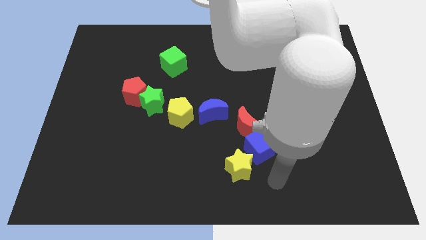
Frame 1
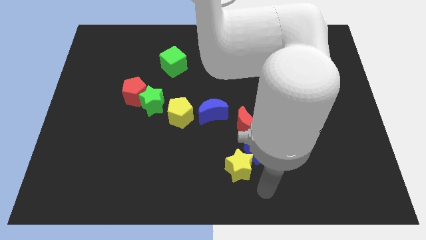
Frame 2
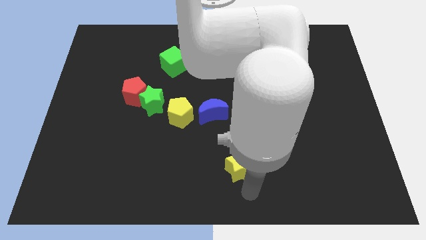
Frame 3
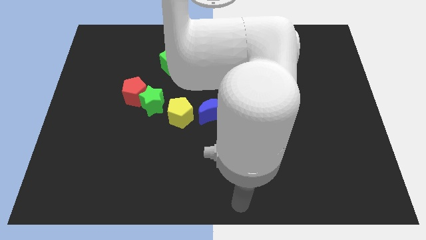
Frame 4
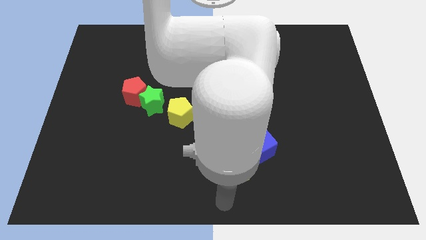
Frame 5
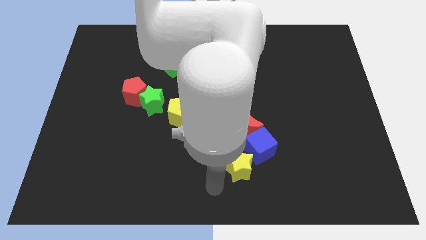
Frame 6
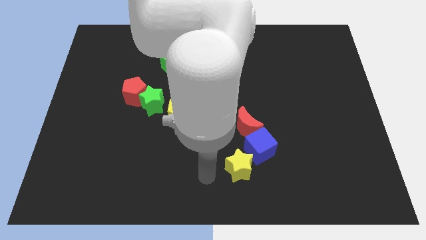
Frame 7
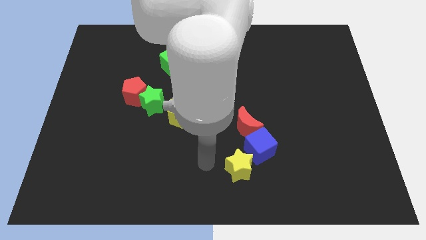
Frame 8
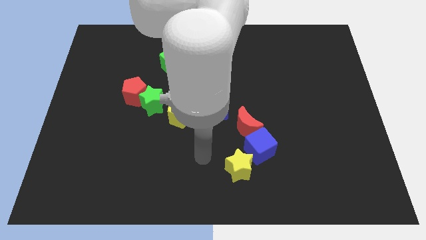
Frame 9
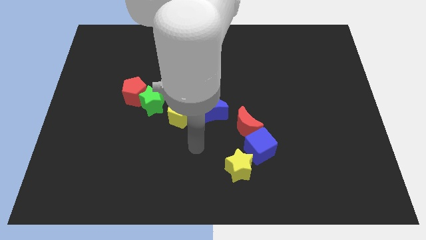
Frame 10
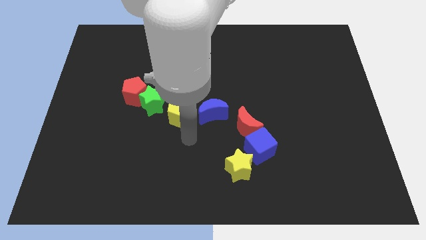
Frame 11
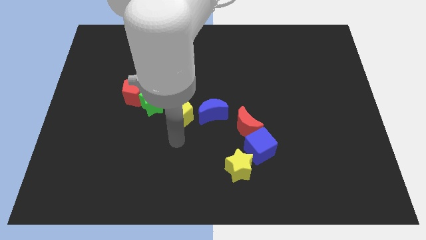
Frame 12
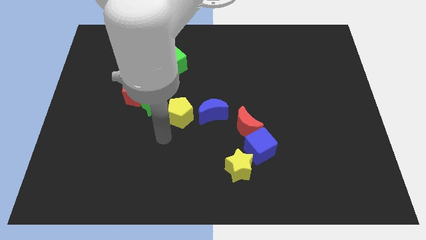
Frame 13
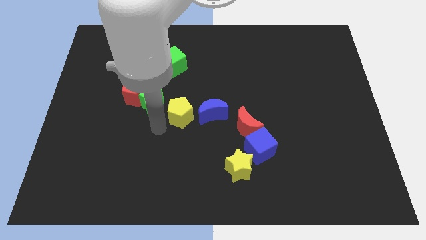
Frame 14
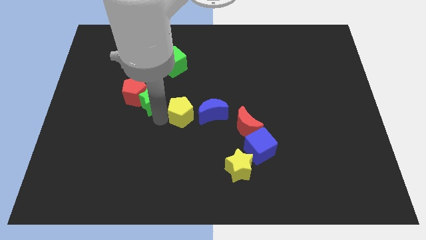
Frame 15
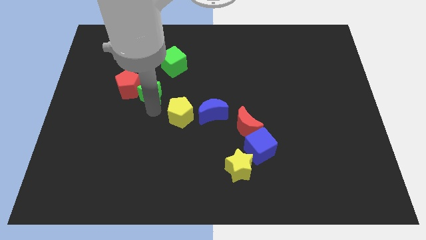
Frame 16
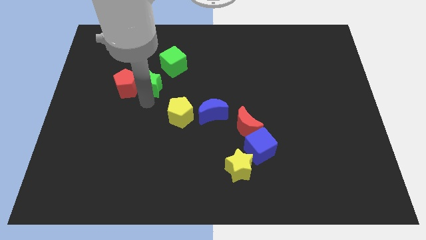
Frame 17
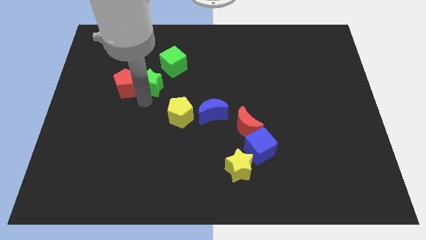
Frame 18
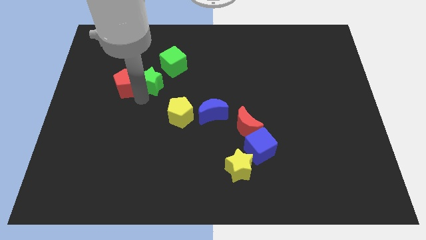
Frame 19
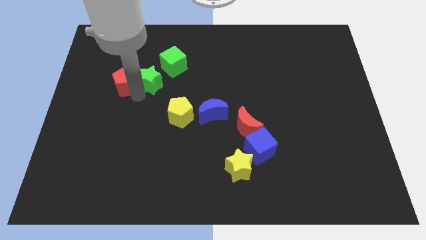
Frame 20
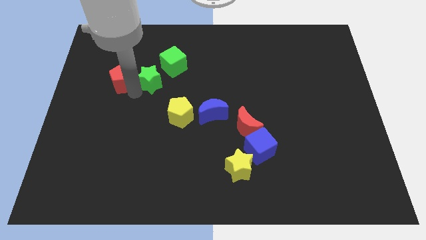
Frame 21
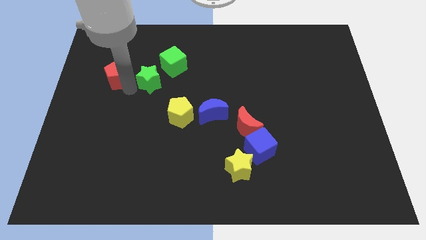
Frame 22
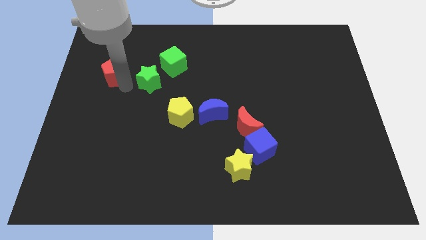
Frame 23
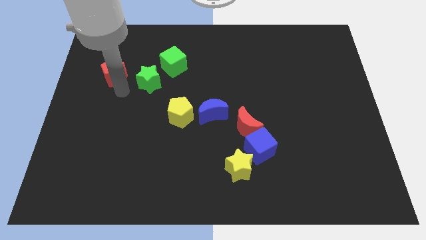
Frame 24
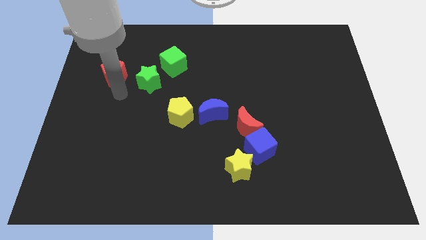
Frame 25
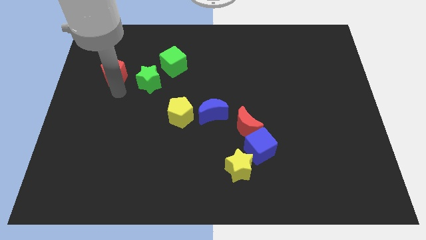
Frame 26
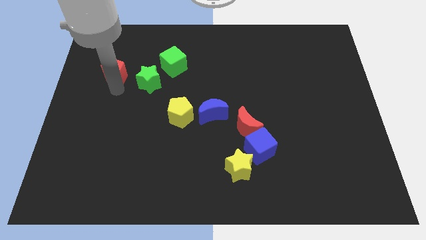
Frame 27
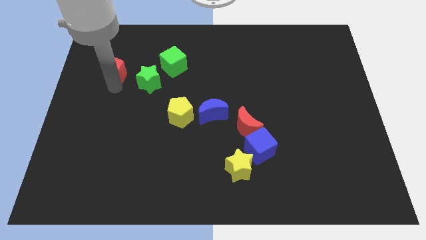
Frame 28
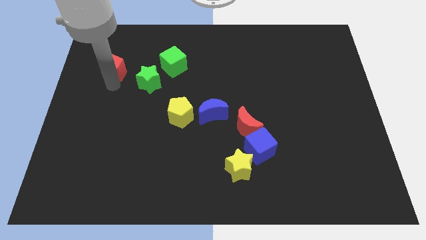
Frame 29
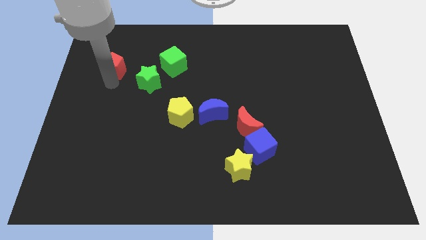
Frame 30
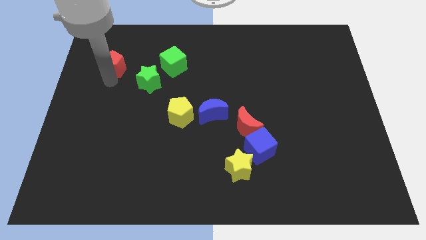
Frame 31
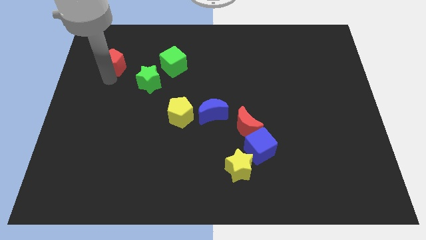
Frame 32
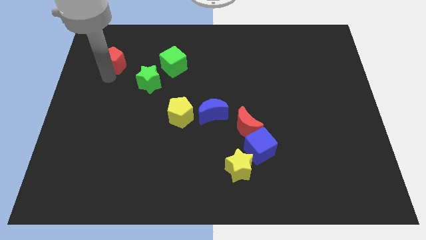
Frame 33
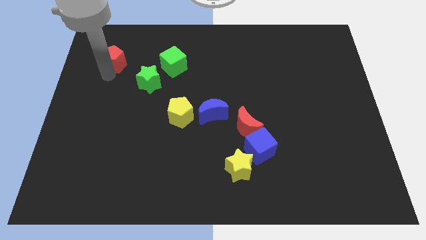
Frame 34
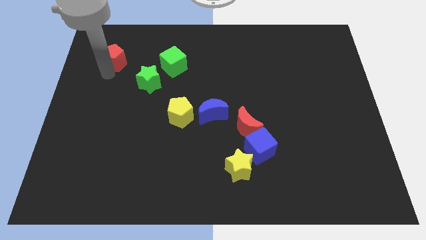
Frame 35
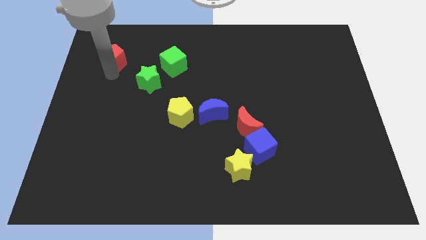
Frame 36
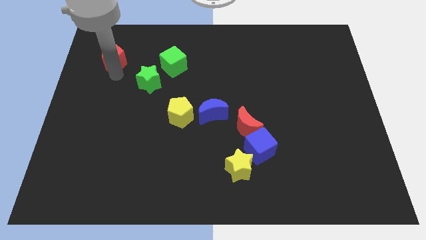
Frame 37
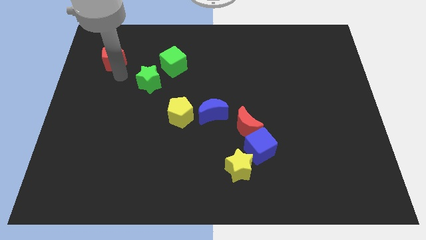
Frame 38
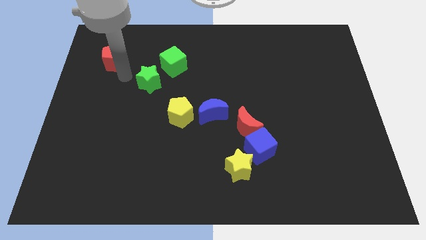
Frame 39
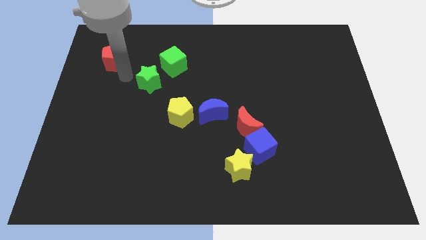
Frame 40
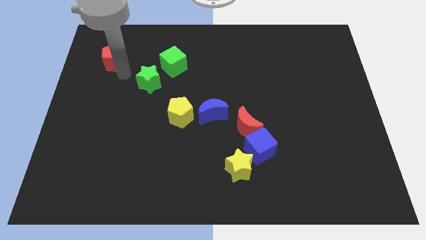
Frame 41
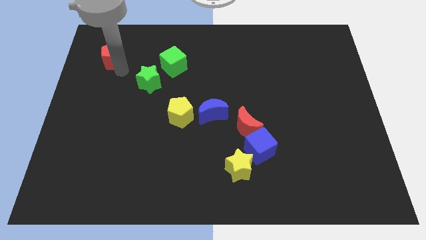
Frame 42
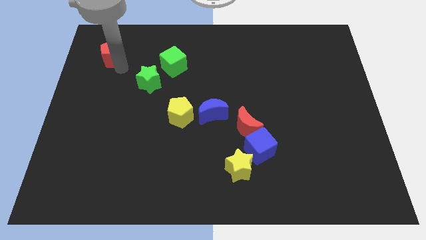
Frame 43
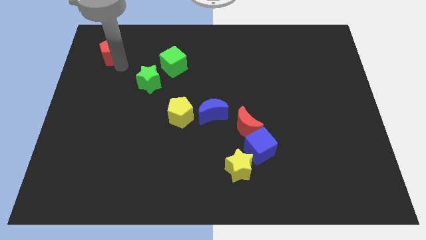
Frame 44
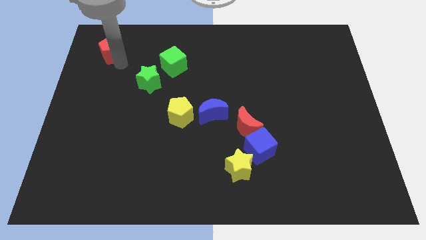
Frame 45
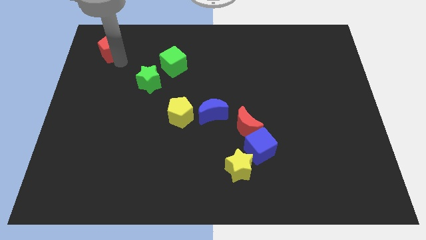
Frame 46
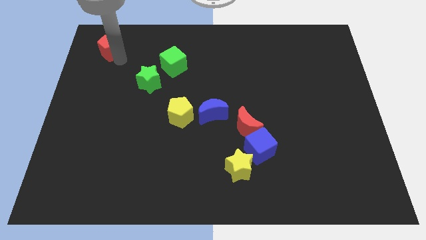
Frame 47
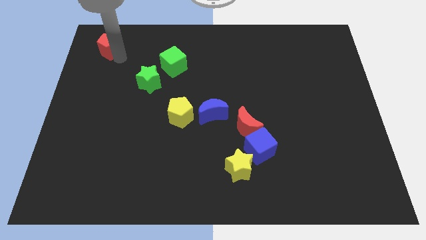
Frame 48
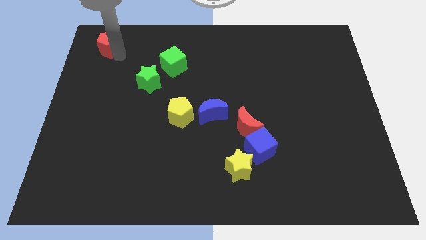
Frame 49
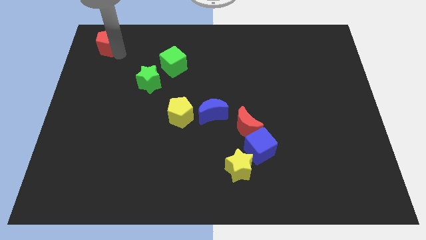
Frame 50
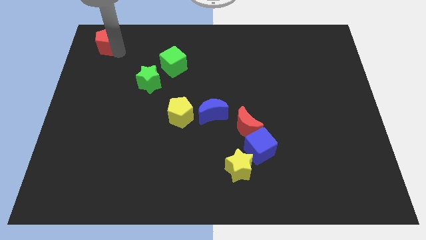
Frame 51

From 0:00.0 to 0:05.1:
push the red pentagon to the top left

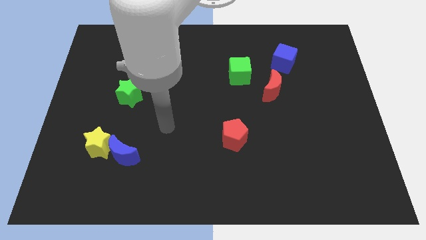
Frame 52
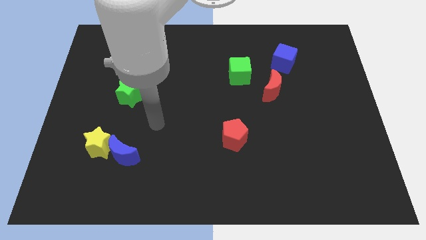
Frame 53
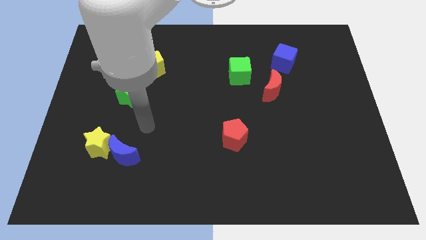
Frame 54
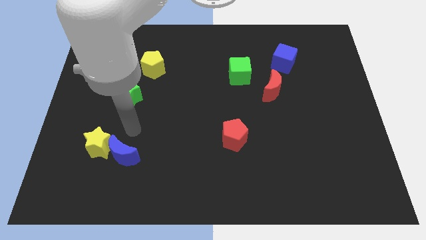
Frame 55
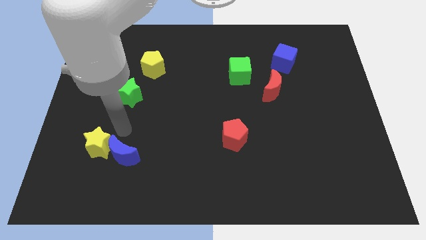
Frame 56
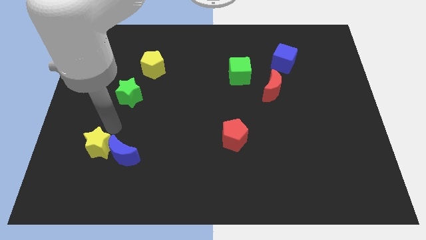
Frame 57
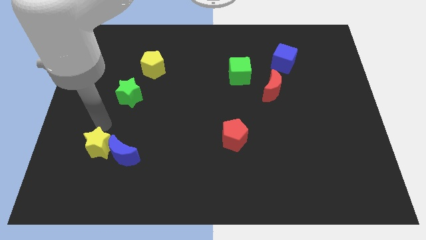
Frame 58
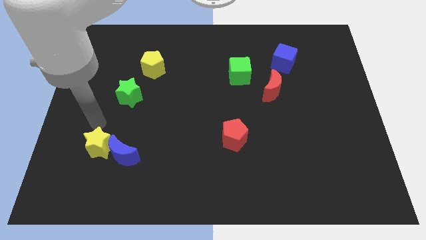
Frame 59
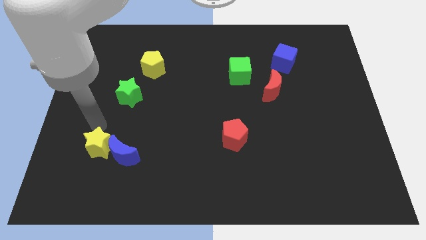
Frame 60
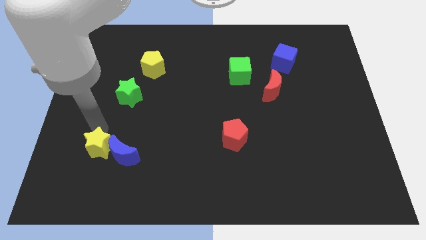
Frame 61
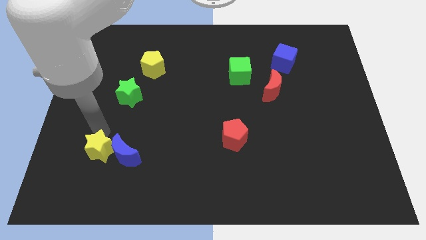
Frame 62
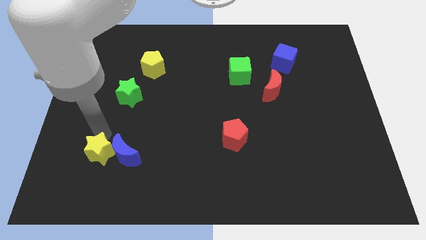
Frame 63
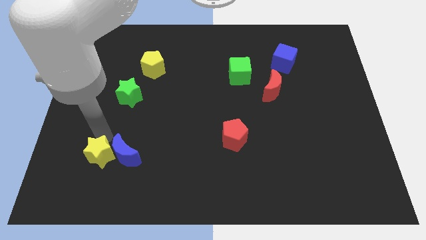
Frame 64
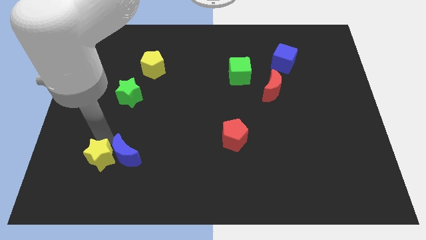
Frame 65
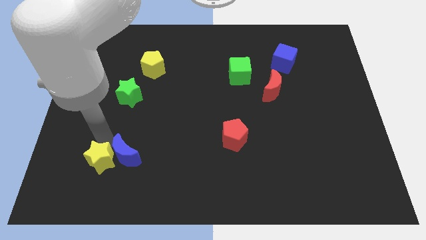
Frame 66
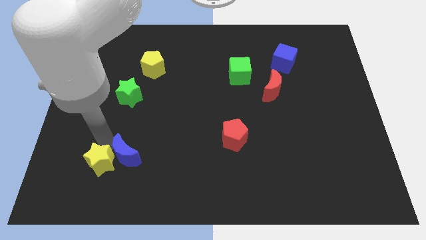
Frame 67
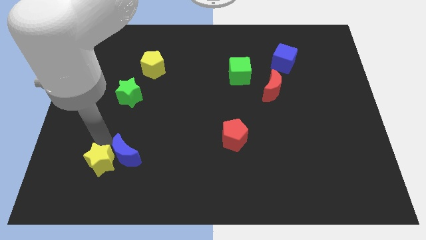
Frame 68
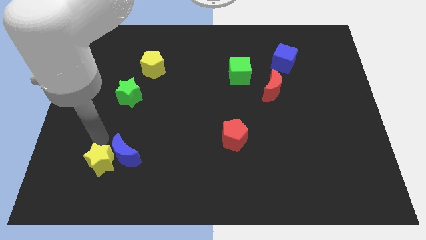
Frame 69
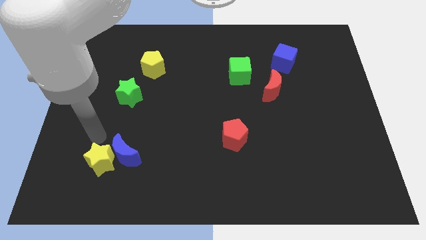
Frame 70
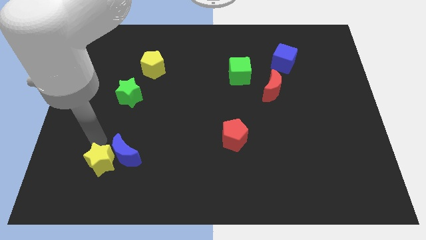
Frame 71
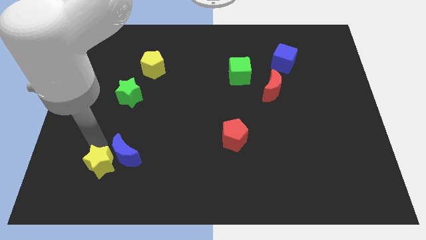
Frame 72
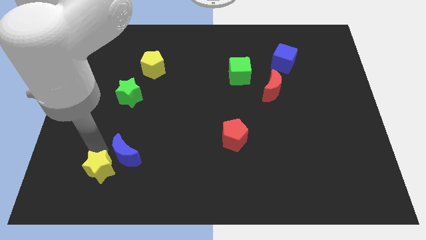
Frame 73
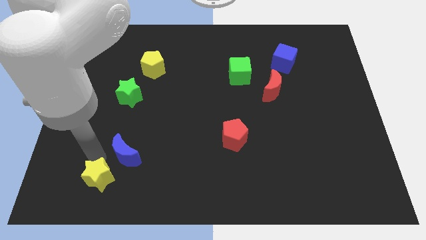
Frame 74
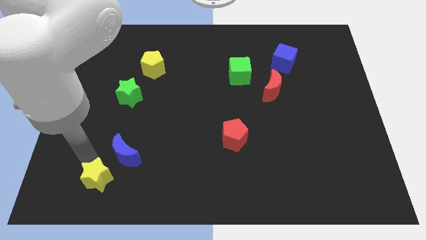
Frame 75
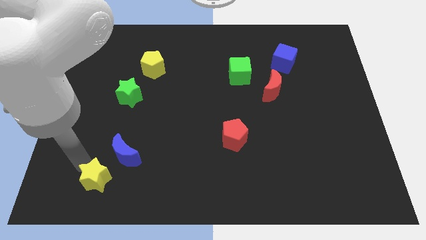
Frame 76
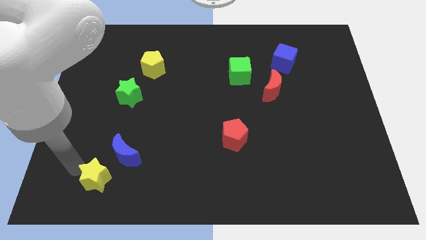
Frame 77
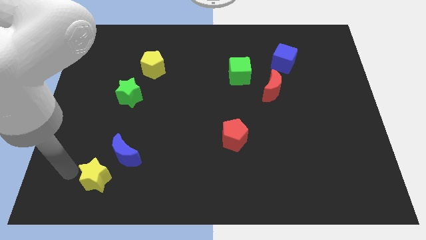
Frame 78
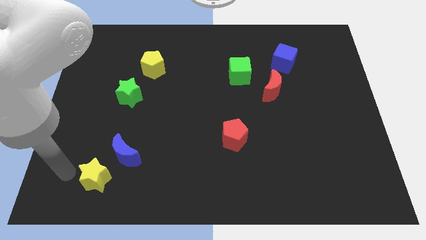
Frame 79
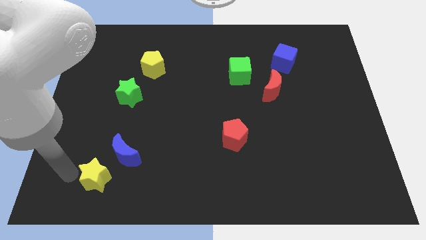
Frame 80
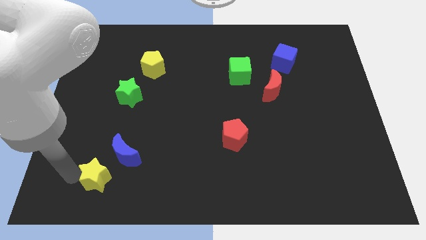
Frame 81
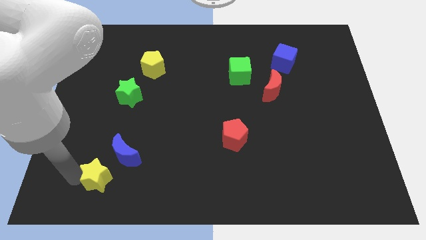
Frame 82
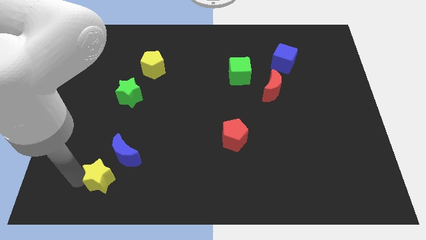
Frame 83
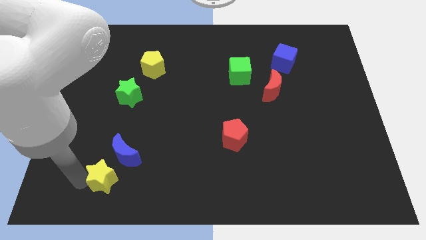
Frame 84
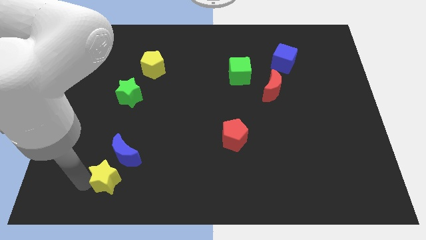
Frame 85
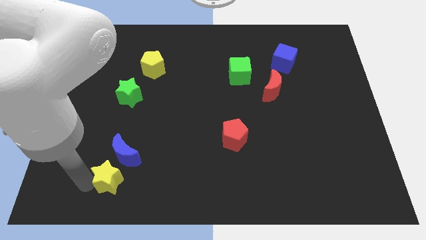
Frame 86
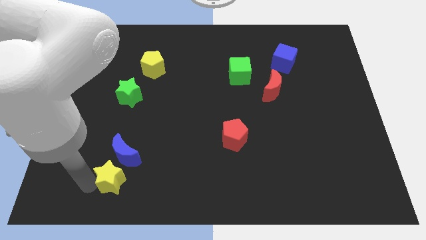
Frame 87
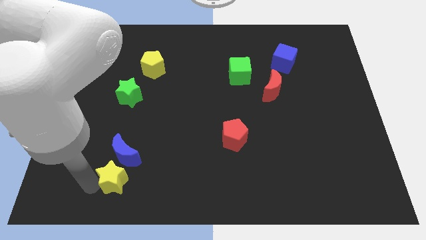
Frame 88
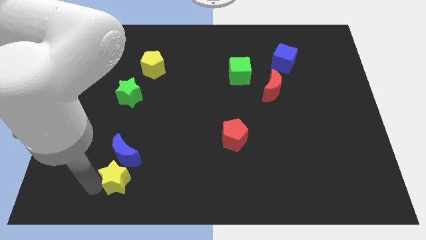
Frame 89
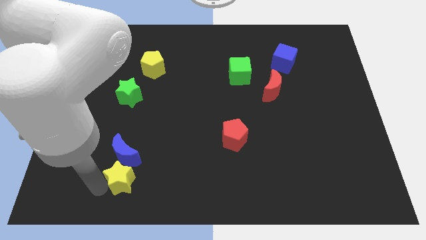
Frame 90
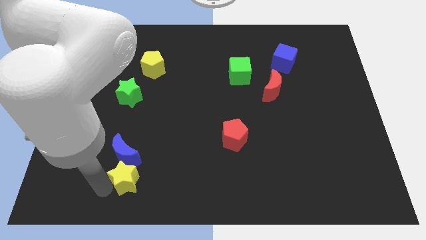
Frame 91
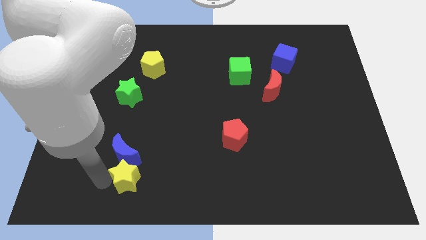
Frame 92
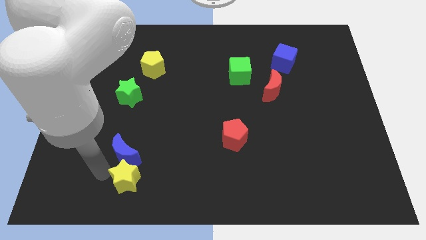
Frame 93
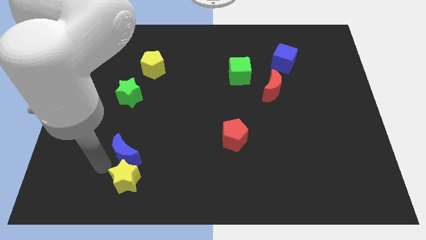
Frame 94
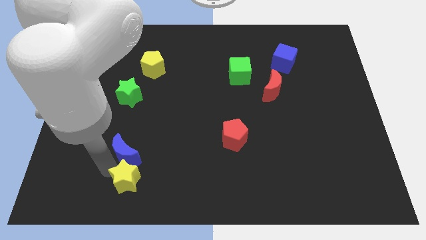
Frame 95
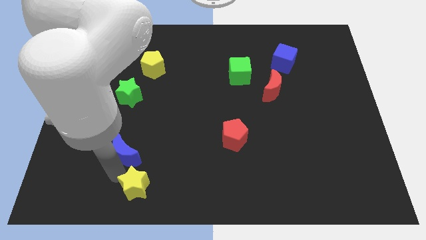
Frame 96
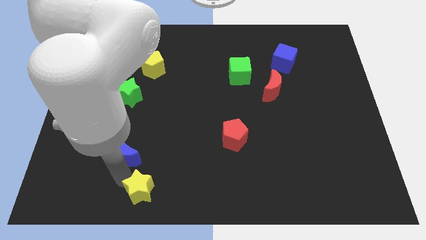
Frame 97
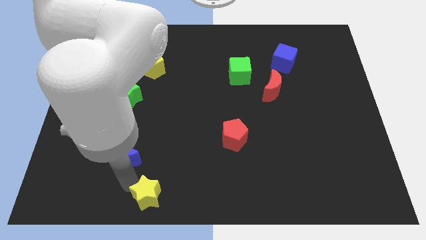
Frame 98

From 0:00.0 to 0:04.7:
push the yellow star to the bottom
